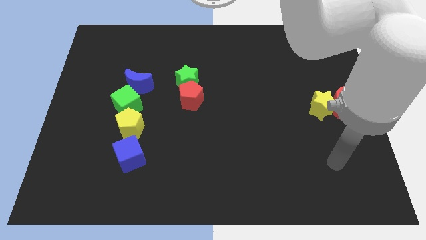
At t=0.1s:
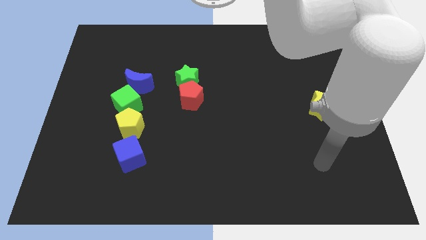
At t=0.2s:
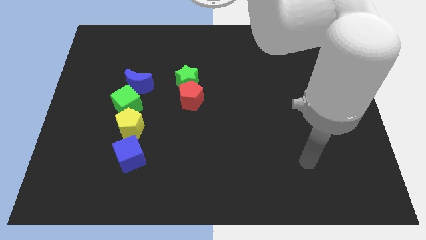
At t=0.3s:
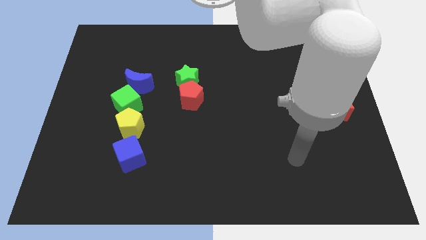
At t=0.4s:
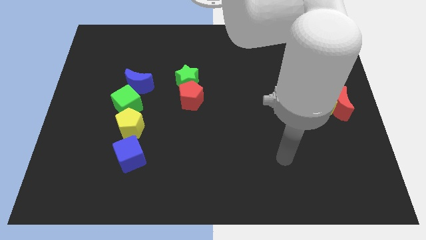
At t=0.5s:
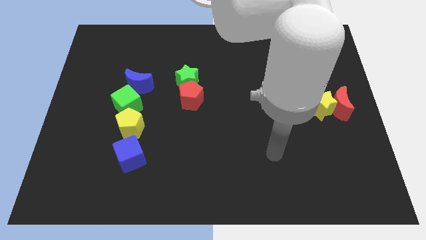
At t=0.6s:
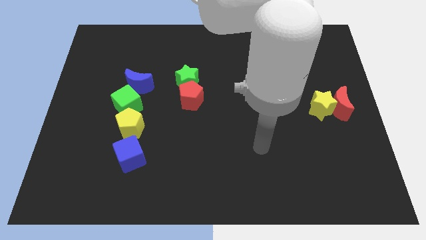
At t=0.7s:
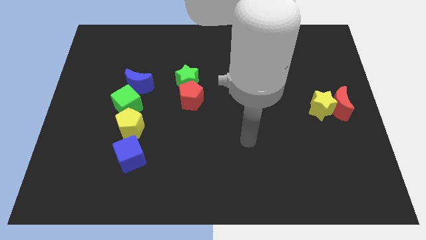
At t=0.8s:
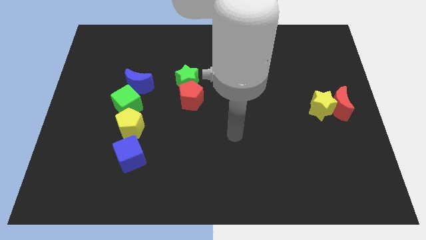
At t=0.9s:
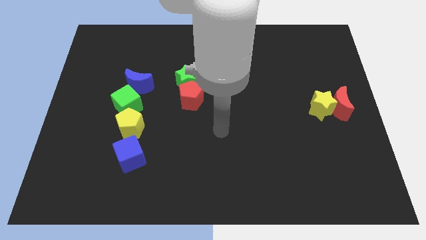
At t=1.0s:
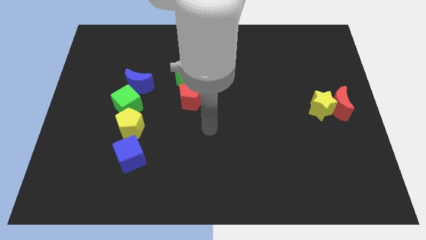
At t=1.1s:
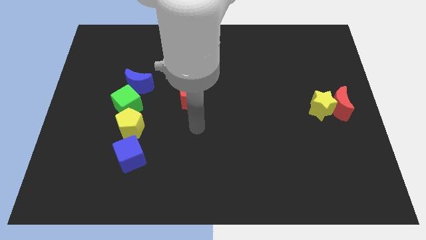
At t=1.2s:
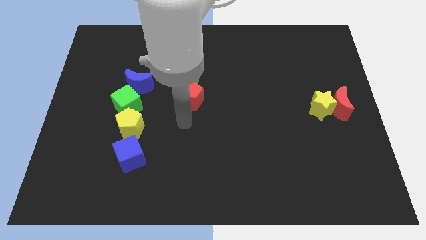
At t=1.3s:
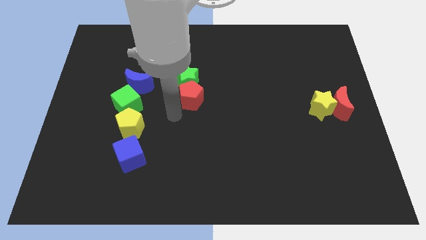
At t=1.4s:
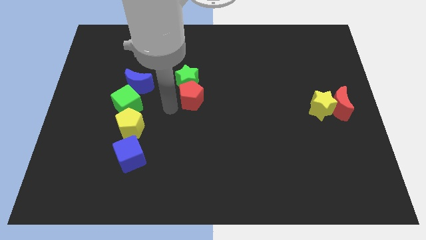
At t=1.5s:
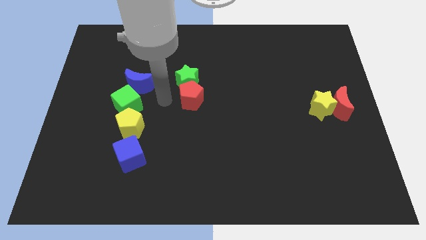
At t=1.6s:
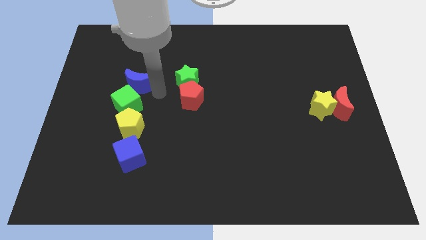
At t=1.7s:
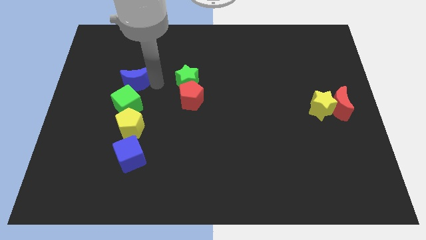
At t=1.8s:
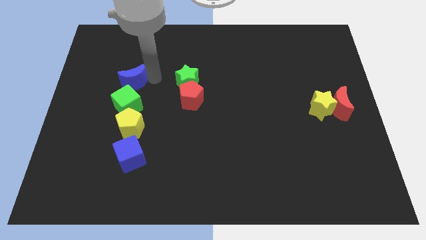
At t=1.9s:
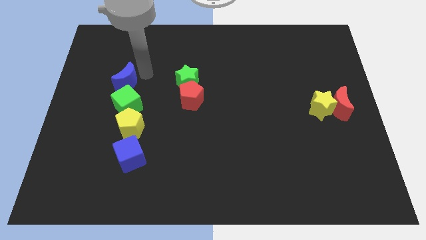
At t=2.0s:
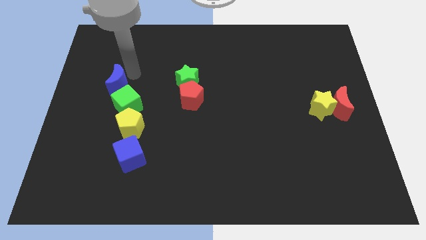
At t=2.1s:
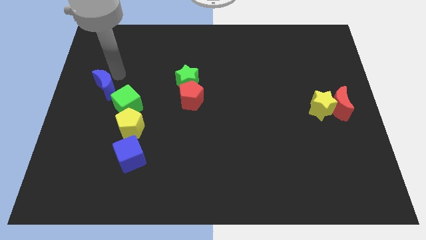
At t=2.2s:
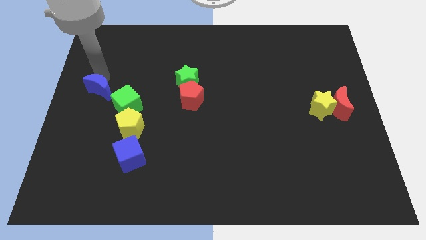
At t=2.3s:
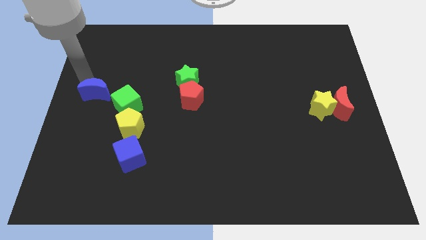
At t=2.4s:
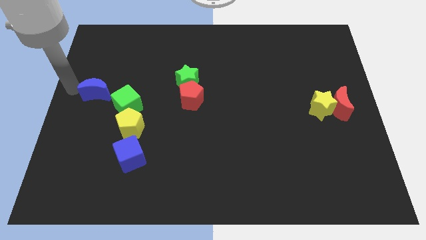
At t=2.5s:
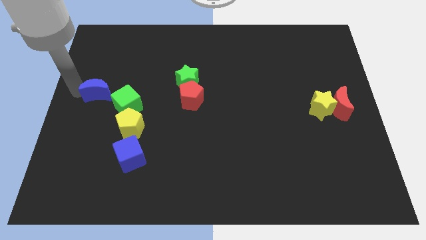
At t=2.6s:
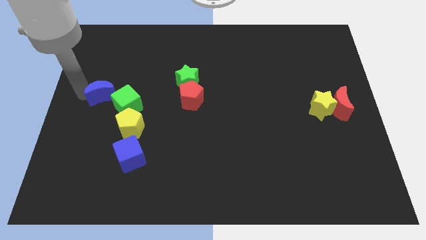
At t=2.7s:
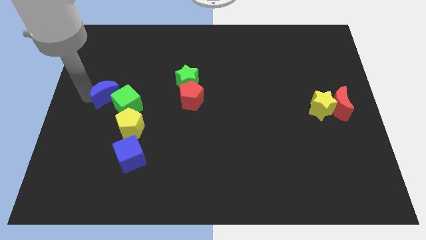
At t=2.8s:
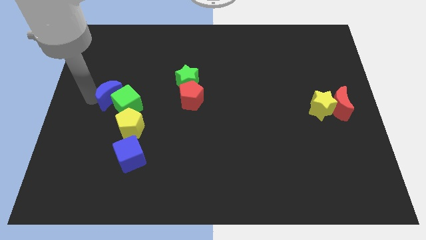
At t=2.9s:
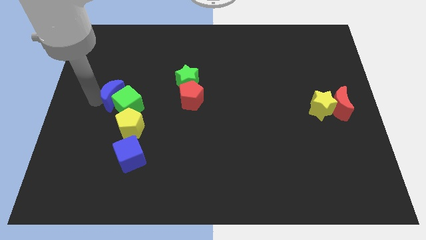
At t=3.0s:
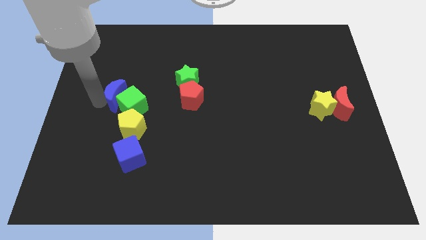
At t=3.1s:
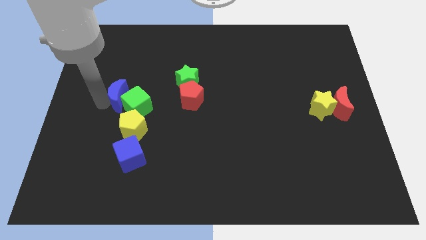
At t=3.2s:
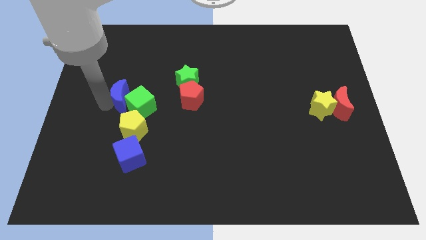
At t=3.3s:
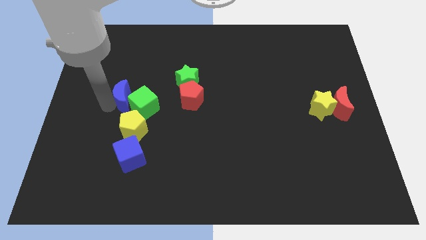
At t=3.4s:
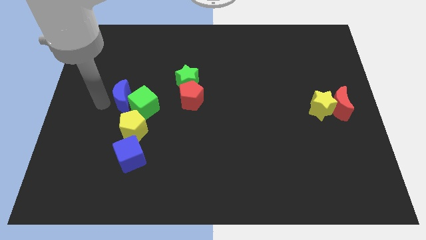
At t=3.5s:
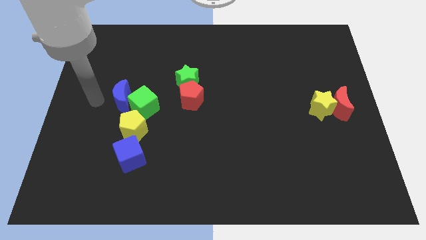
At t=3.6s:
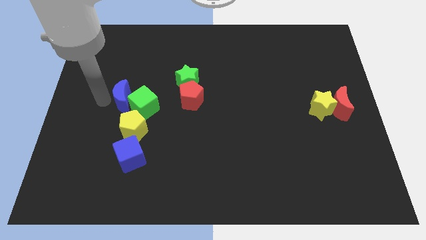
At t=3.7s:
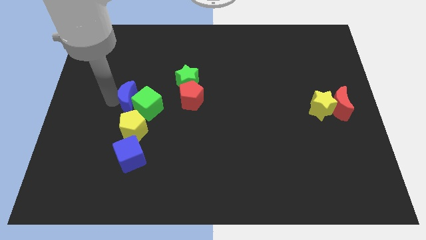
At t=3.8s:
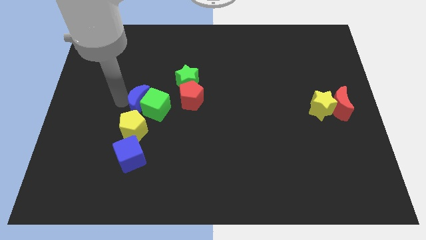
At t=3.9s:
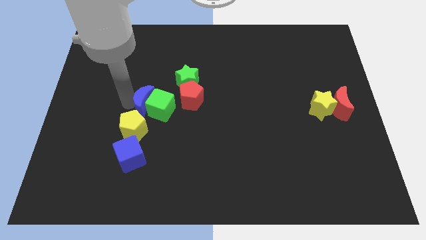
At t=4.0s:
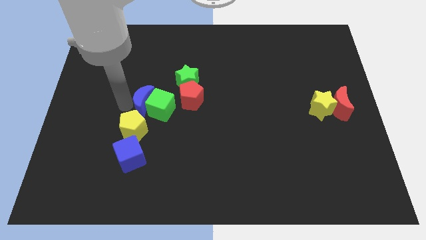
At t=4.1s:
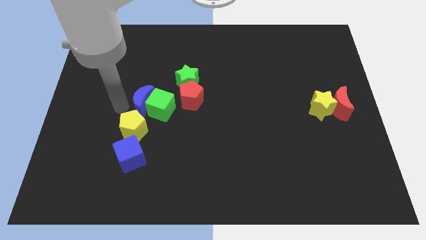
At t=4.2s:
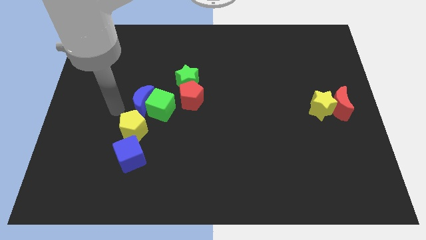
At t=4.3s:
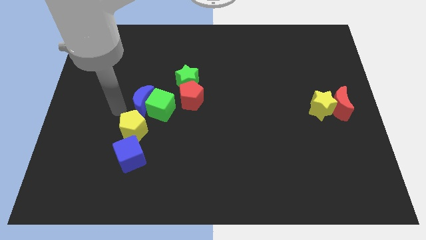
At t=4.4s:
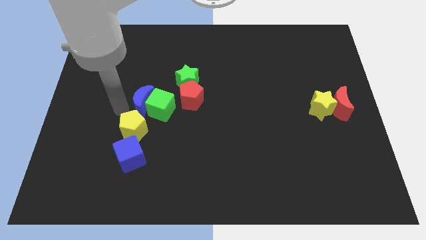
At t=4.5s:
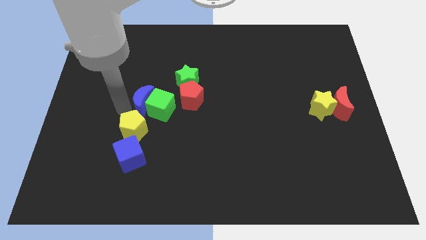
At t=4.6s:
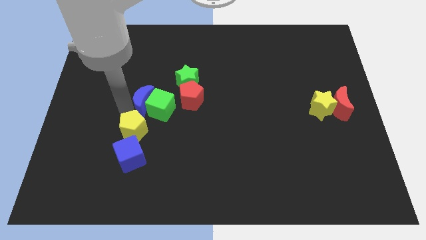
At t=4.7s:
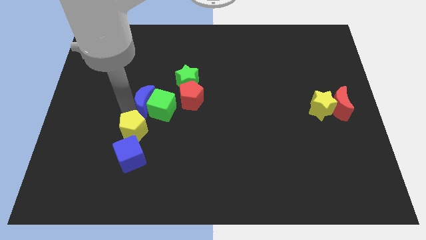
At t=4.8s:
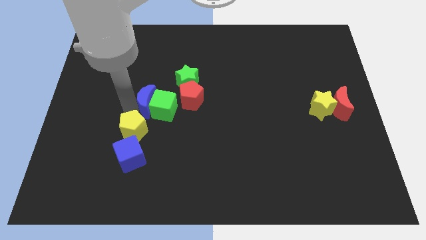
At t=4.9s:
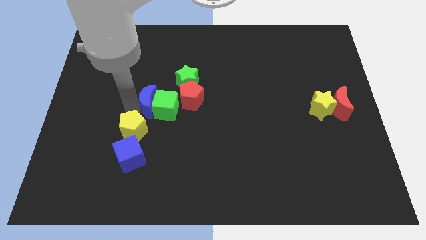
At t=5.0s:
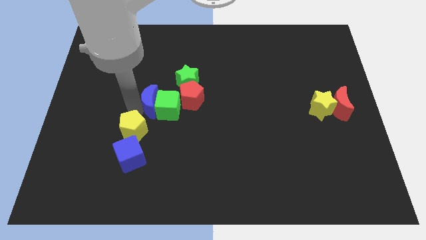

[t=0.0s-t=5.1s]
slide the blue moon a bit down and right

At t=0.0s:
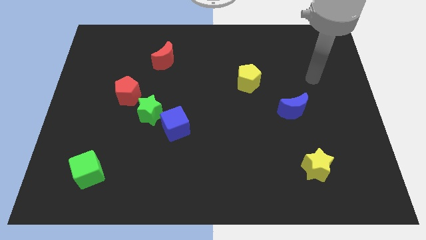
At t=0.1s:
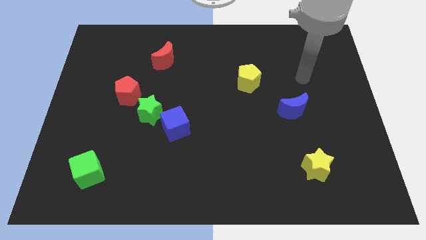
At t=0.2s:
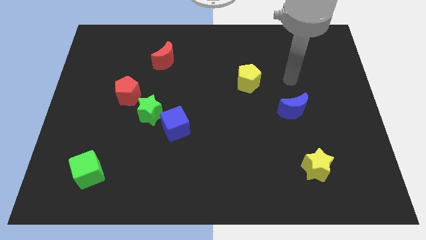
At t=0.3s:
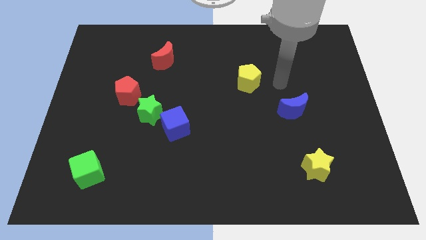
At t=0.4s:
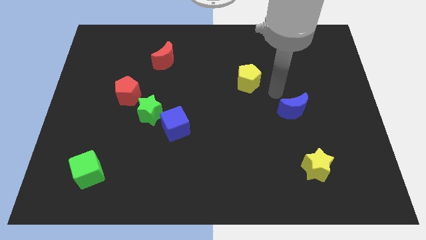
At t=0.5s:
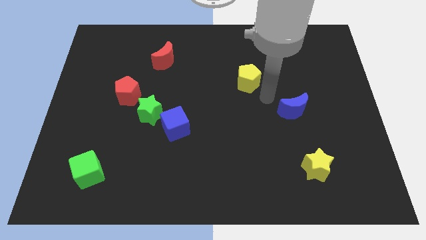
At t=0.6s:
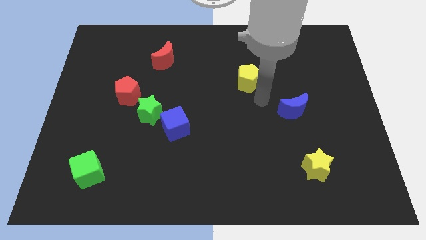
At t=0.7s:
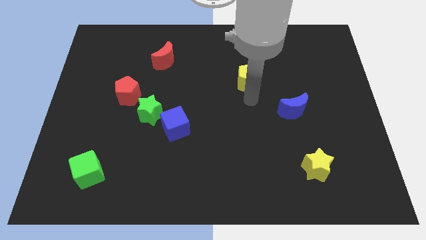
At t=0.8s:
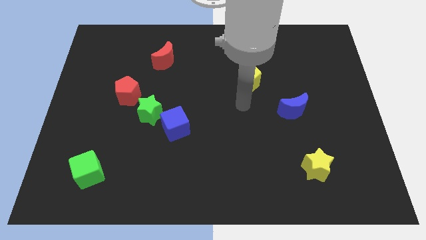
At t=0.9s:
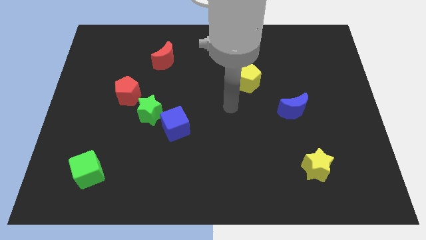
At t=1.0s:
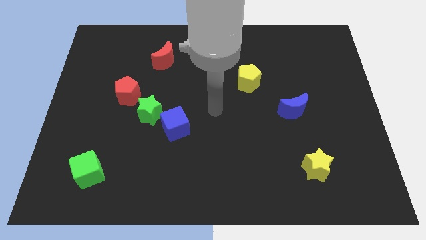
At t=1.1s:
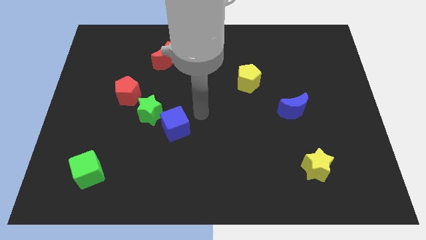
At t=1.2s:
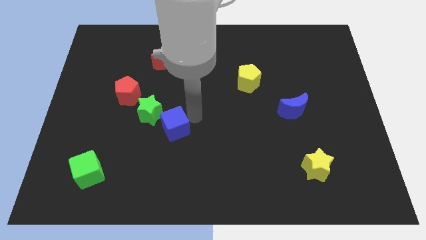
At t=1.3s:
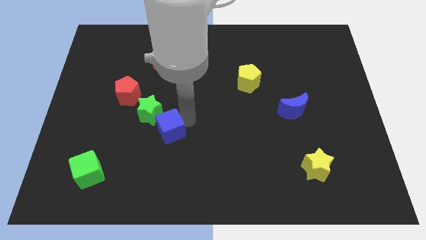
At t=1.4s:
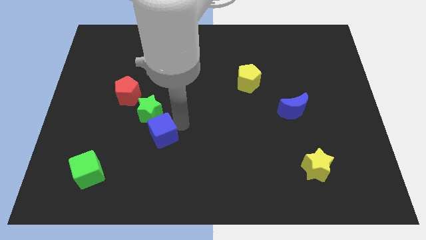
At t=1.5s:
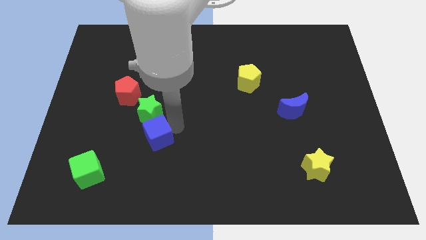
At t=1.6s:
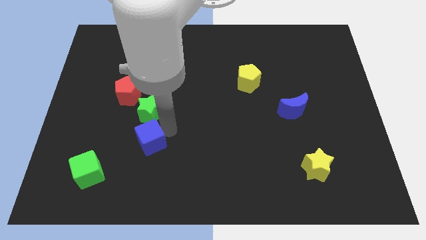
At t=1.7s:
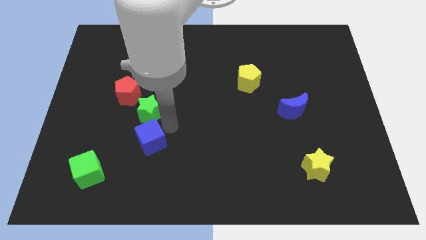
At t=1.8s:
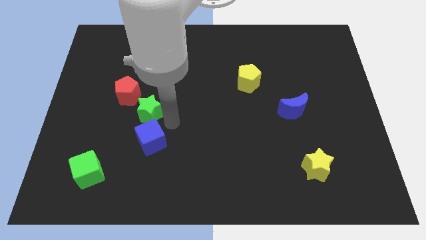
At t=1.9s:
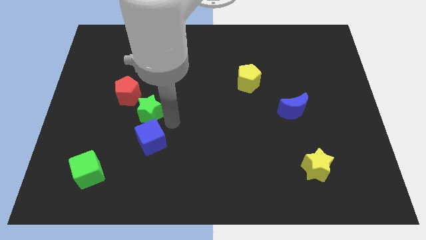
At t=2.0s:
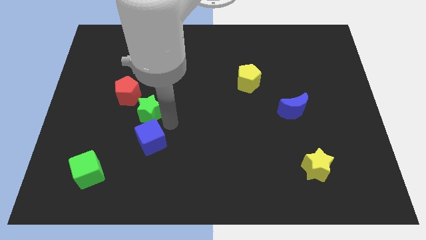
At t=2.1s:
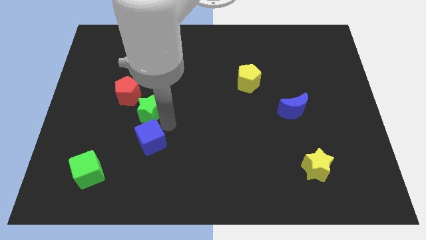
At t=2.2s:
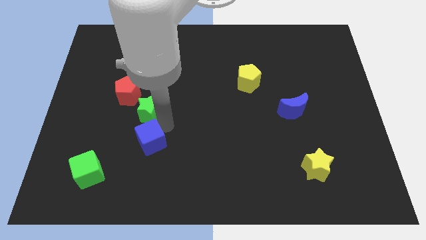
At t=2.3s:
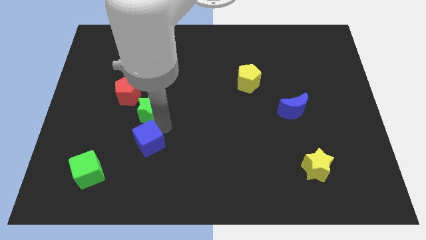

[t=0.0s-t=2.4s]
move the blue cube diagonally downwards and left a little bit

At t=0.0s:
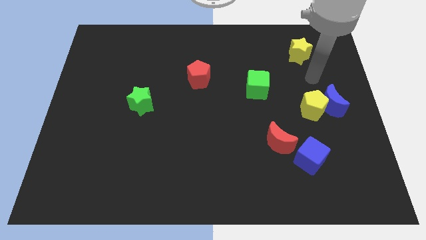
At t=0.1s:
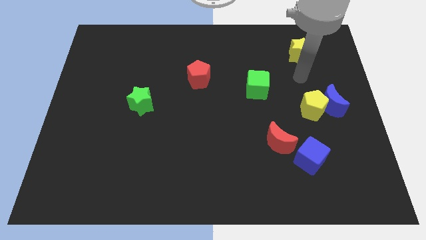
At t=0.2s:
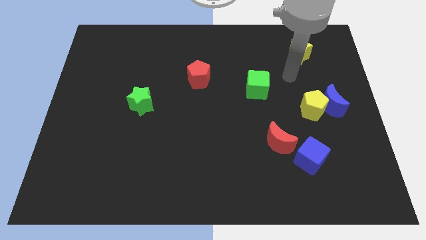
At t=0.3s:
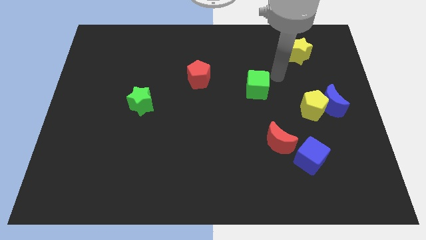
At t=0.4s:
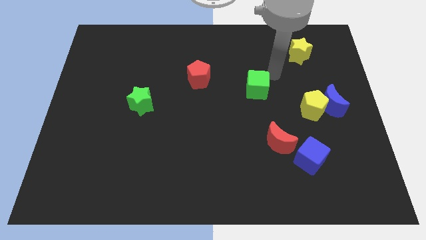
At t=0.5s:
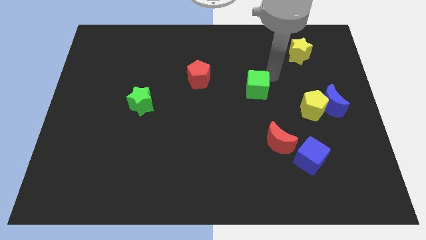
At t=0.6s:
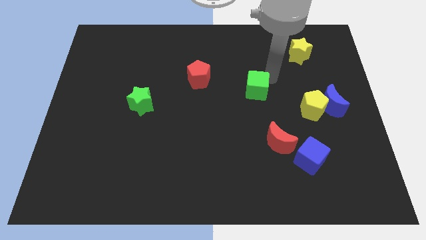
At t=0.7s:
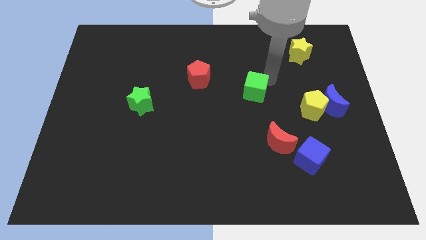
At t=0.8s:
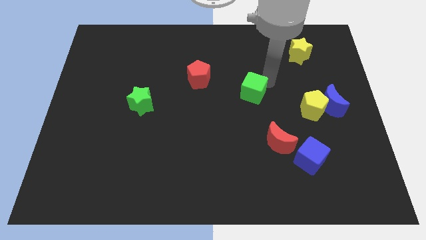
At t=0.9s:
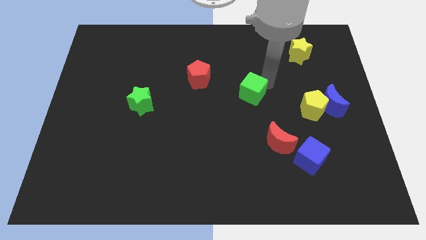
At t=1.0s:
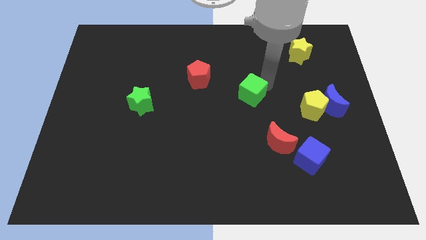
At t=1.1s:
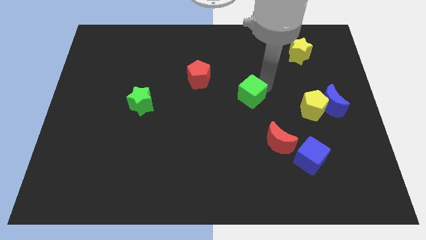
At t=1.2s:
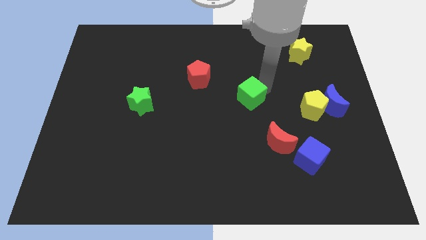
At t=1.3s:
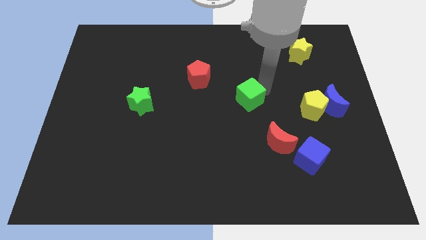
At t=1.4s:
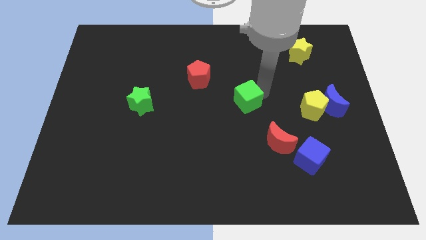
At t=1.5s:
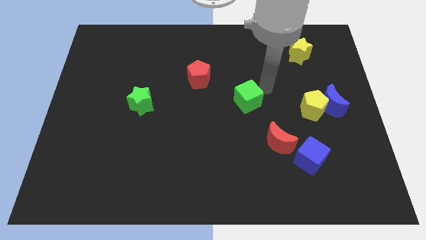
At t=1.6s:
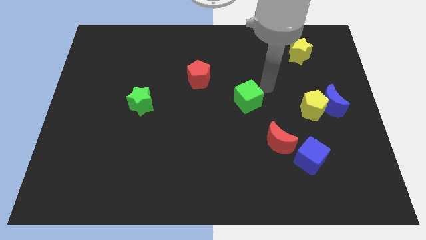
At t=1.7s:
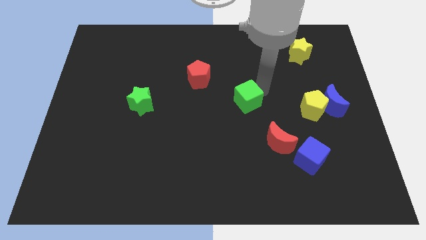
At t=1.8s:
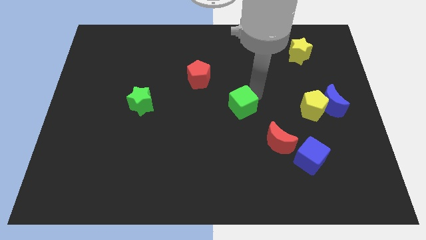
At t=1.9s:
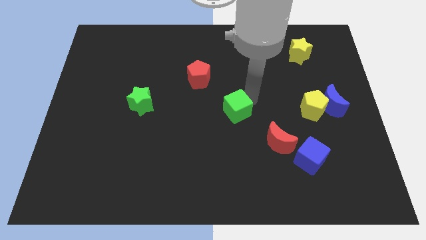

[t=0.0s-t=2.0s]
push the green cube somewhat downwards and then to the left
